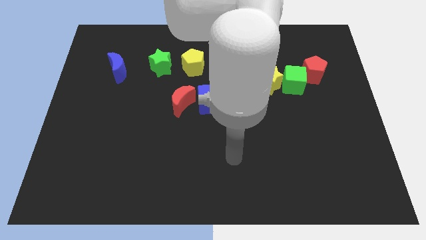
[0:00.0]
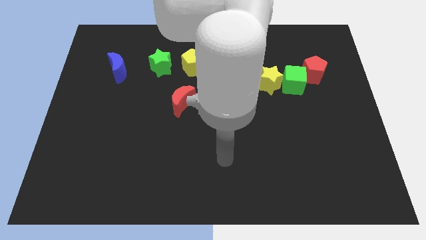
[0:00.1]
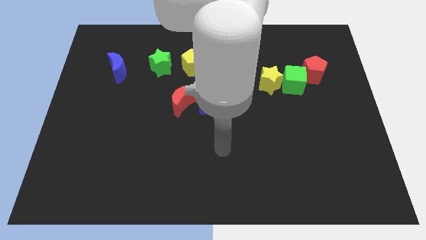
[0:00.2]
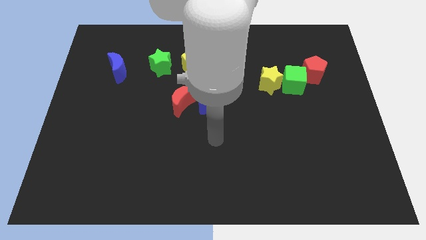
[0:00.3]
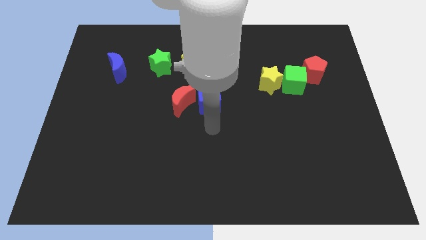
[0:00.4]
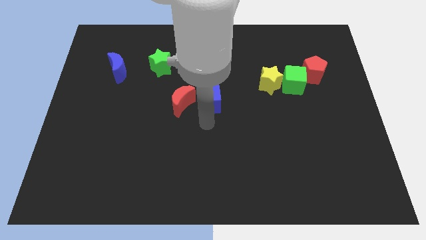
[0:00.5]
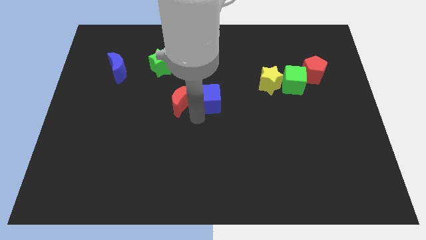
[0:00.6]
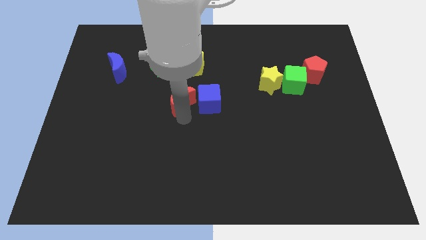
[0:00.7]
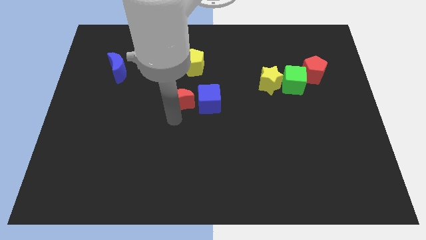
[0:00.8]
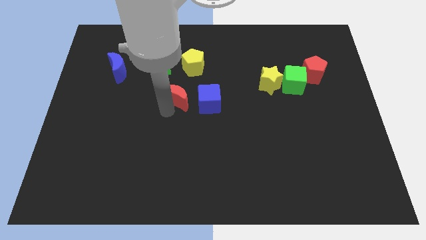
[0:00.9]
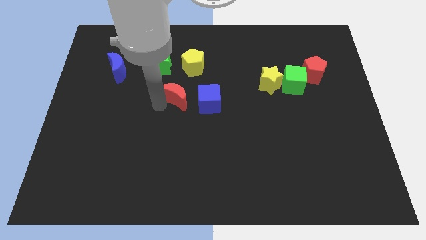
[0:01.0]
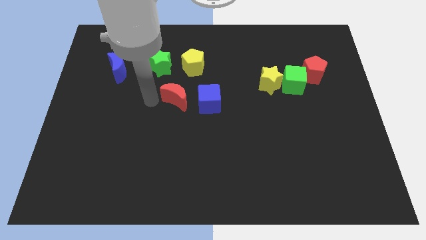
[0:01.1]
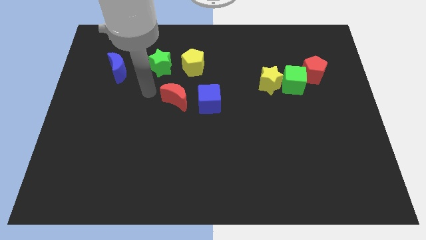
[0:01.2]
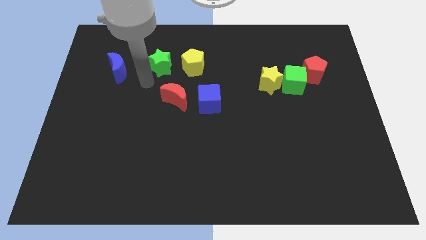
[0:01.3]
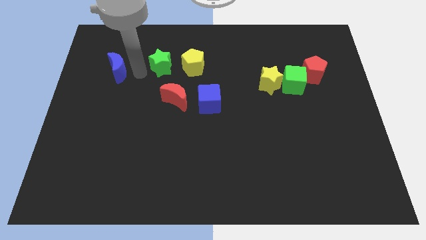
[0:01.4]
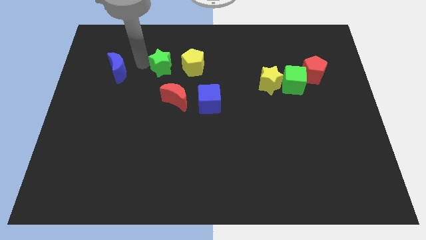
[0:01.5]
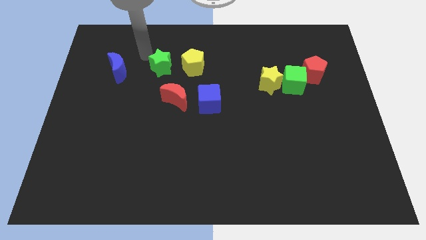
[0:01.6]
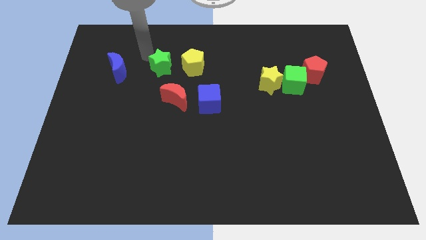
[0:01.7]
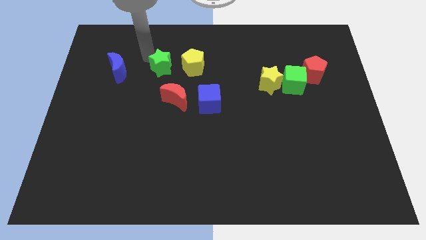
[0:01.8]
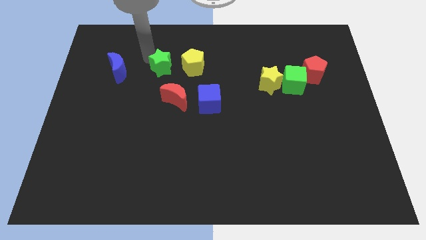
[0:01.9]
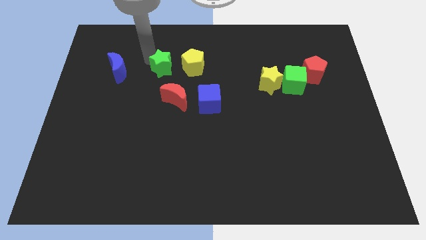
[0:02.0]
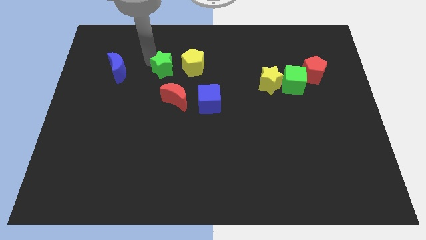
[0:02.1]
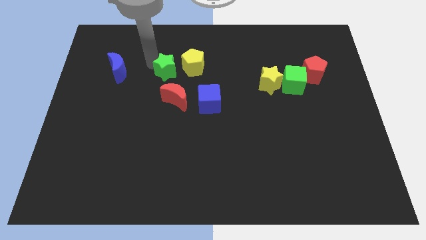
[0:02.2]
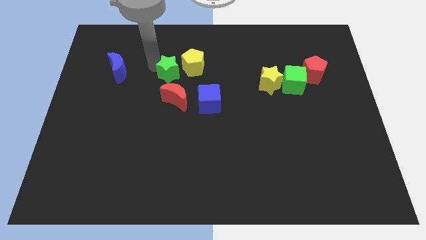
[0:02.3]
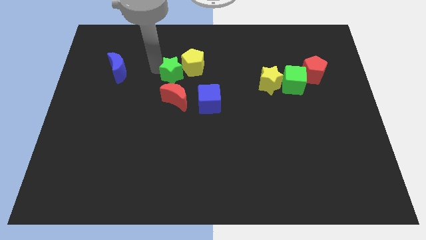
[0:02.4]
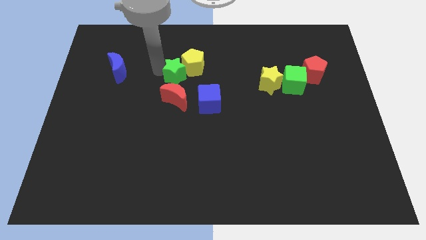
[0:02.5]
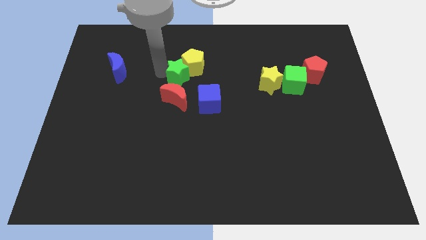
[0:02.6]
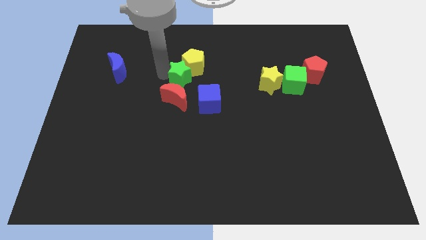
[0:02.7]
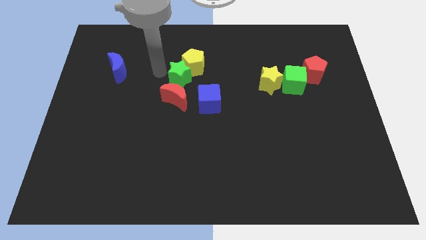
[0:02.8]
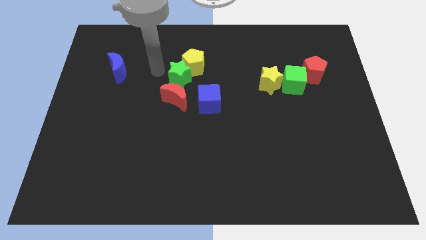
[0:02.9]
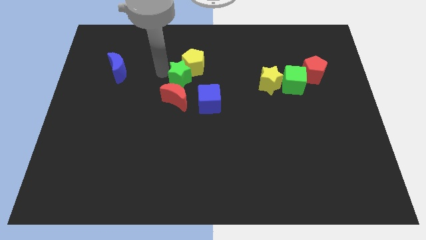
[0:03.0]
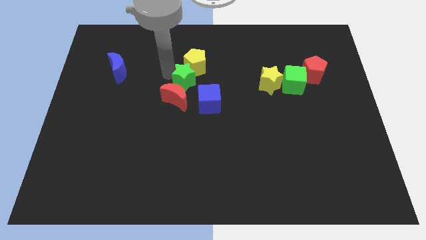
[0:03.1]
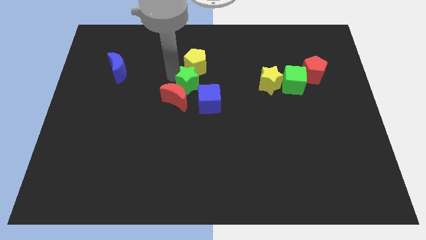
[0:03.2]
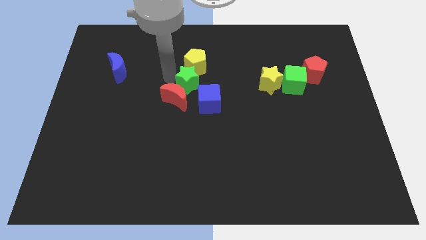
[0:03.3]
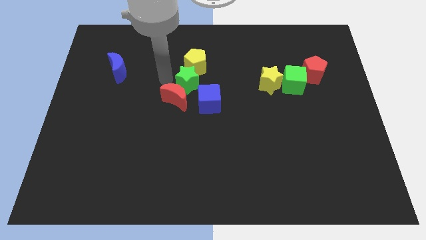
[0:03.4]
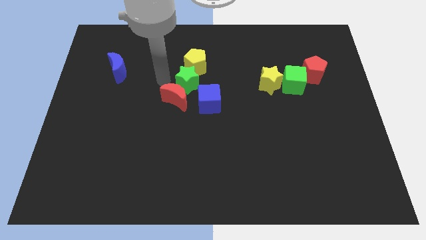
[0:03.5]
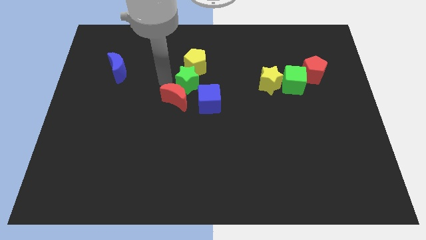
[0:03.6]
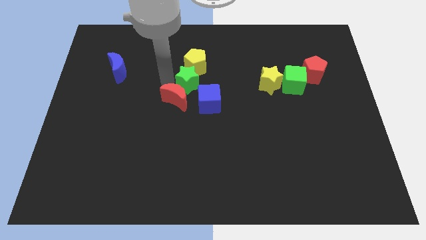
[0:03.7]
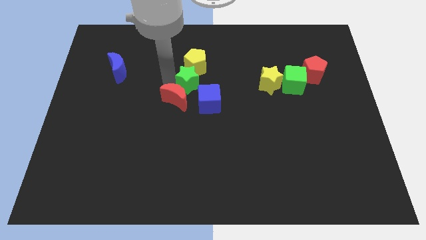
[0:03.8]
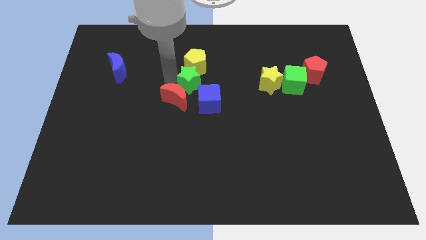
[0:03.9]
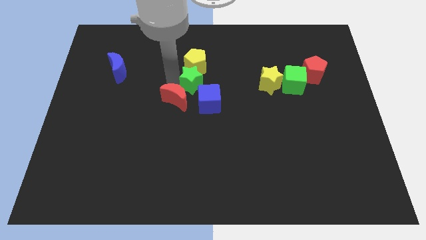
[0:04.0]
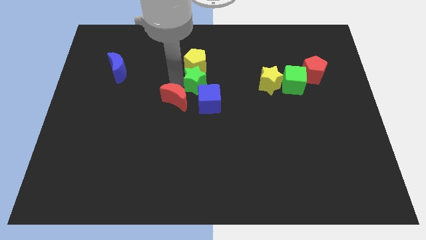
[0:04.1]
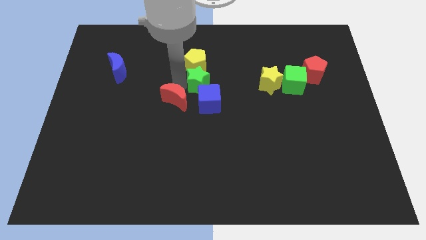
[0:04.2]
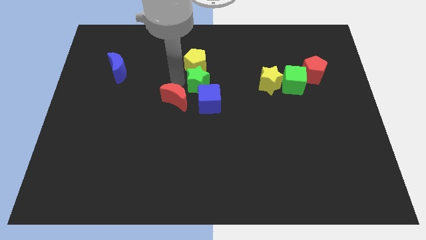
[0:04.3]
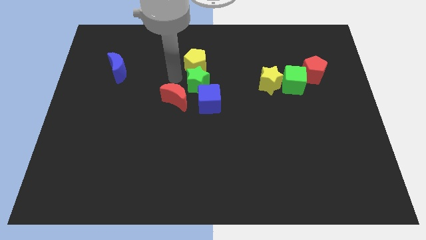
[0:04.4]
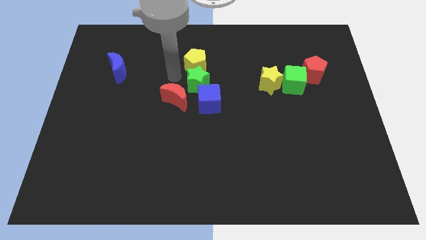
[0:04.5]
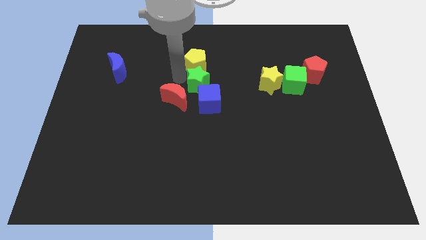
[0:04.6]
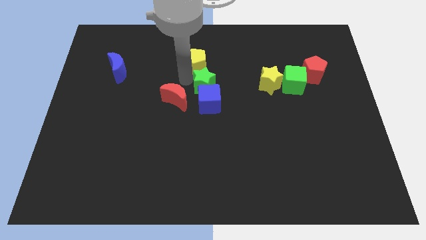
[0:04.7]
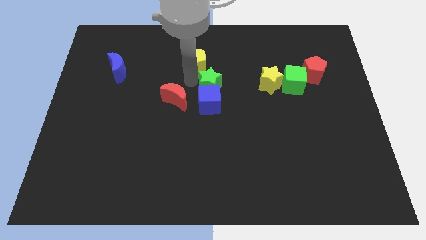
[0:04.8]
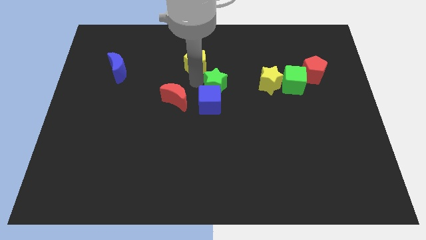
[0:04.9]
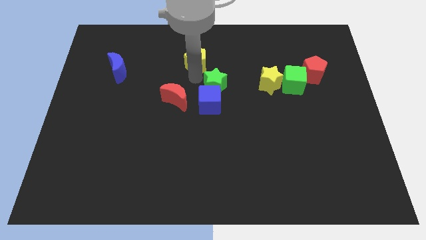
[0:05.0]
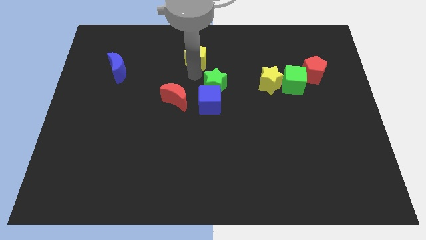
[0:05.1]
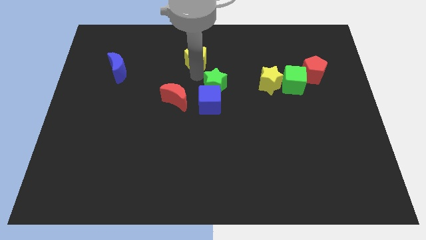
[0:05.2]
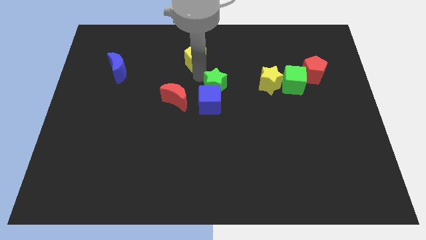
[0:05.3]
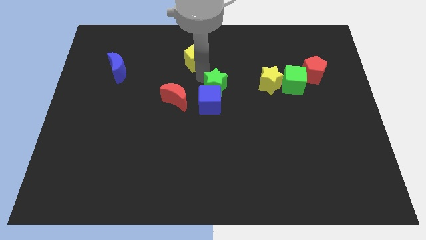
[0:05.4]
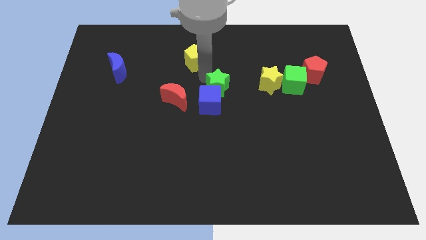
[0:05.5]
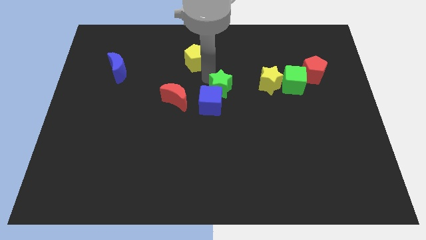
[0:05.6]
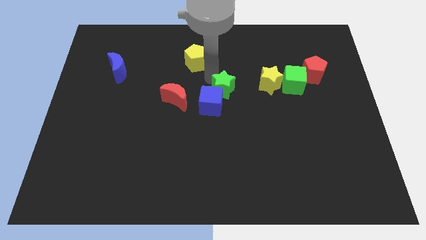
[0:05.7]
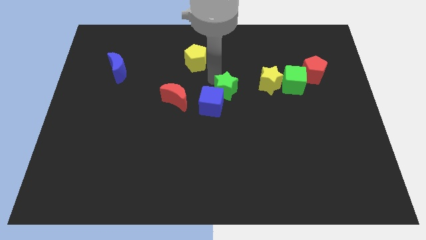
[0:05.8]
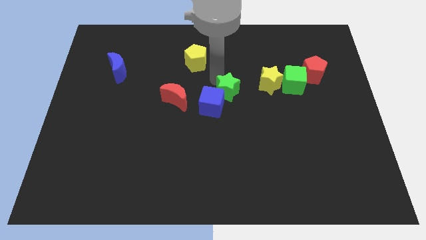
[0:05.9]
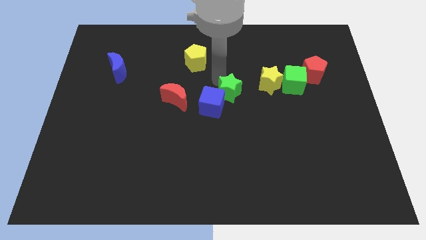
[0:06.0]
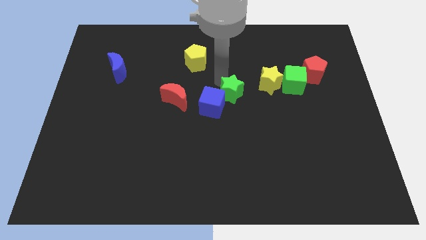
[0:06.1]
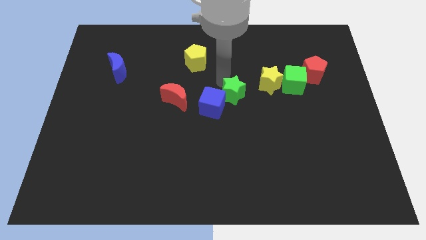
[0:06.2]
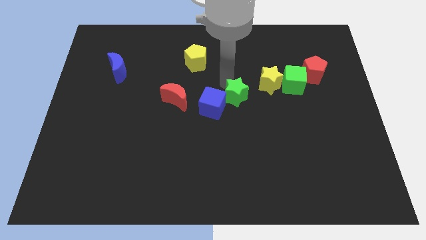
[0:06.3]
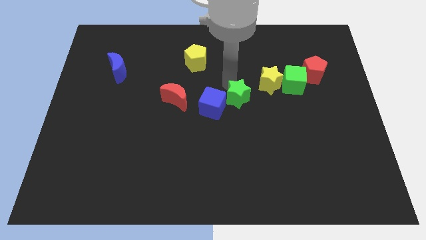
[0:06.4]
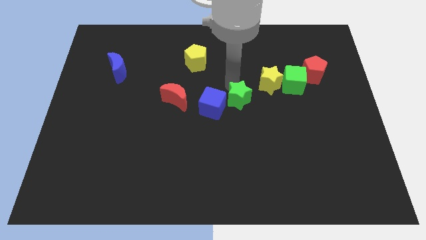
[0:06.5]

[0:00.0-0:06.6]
move the green star down and then to the right

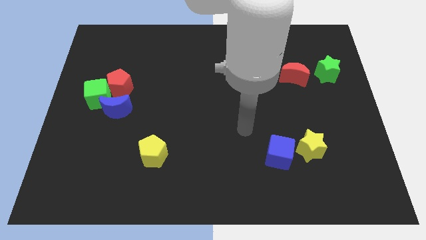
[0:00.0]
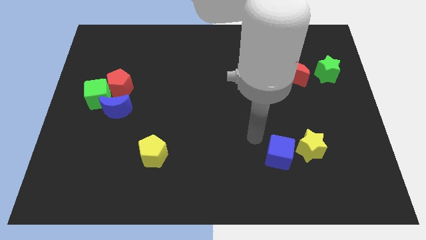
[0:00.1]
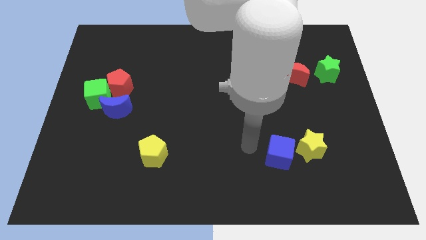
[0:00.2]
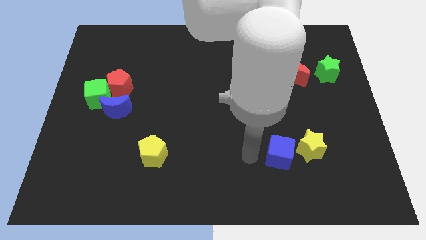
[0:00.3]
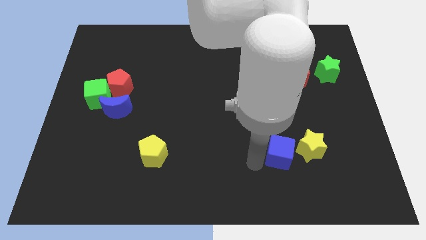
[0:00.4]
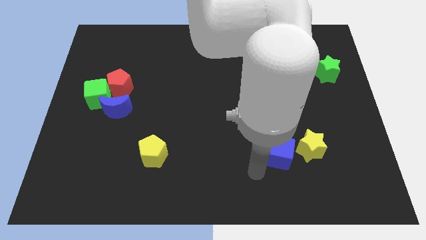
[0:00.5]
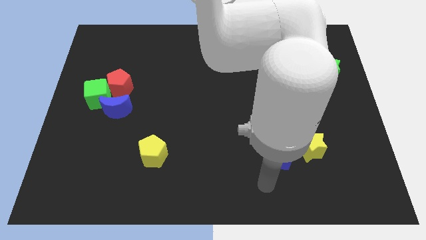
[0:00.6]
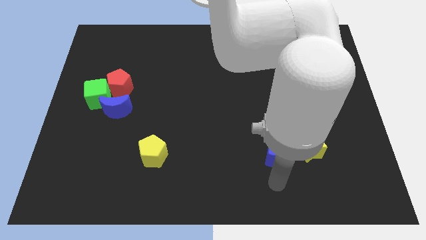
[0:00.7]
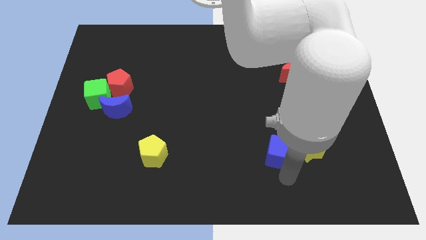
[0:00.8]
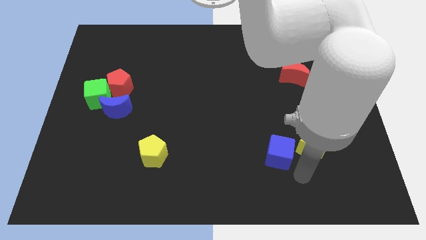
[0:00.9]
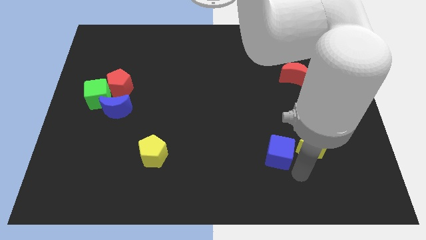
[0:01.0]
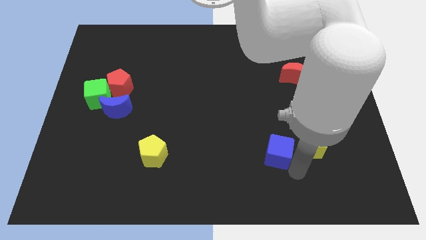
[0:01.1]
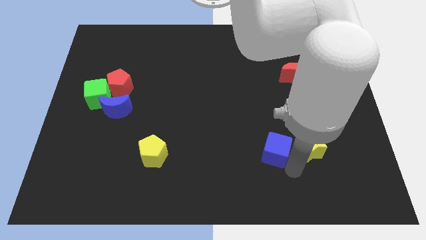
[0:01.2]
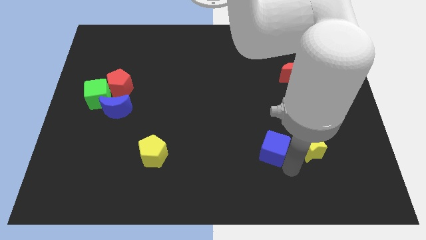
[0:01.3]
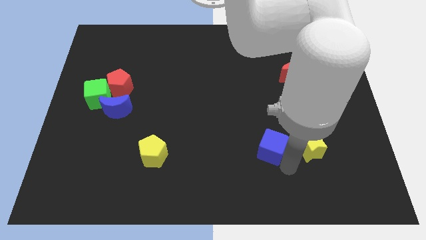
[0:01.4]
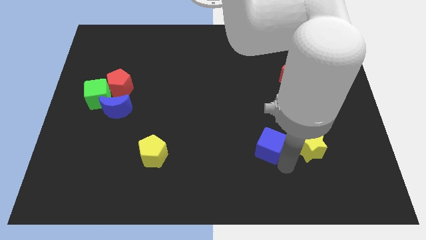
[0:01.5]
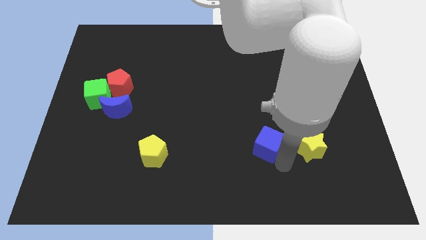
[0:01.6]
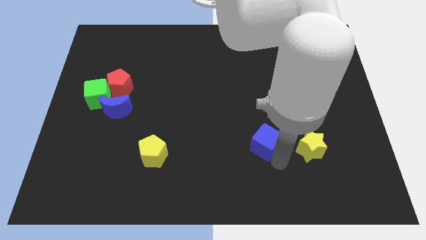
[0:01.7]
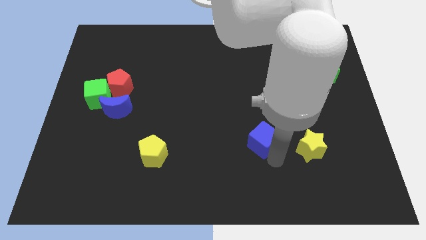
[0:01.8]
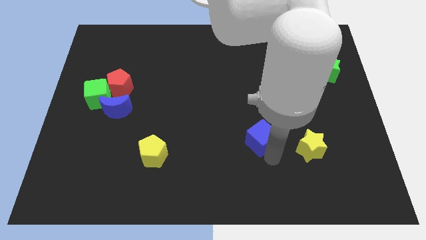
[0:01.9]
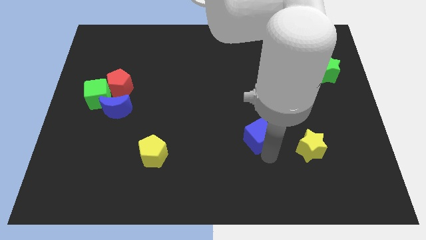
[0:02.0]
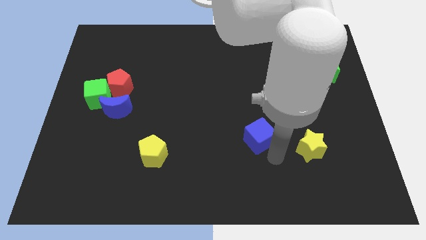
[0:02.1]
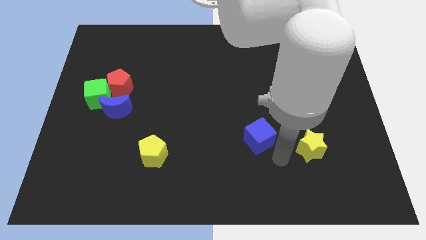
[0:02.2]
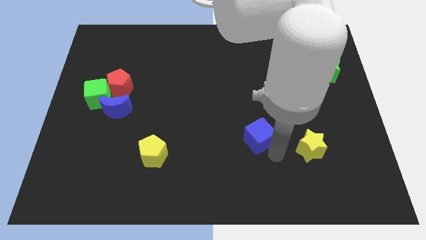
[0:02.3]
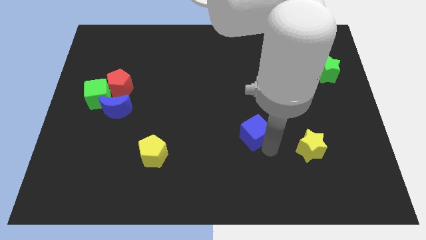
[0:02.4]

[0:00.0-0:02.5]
push the blue cube a little bit upwards and left
